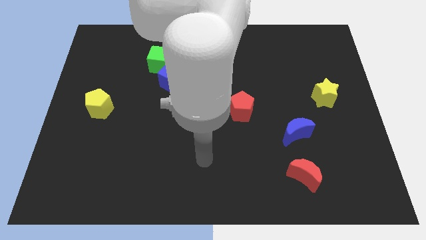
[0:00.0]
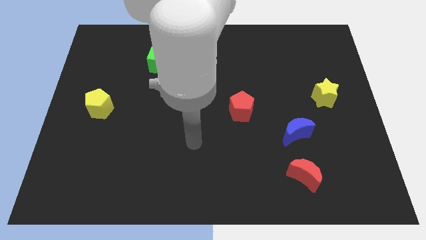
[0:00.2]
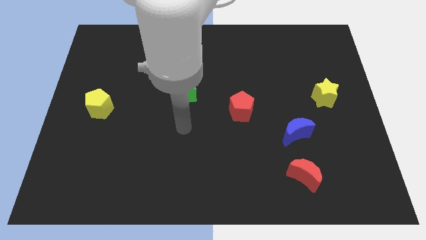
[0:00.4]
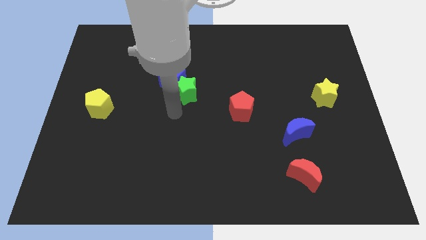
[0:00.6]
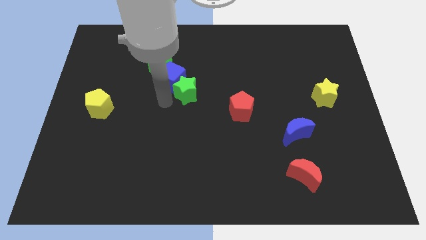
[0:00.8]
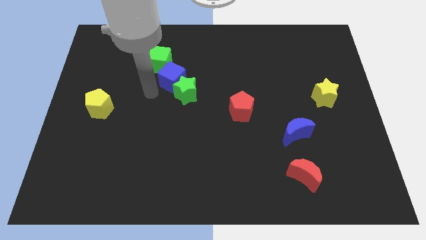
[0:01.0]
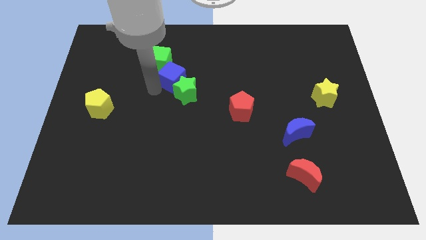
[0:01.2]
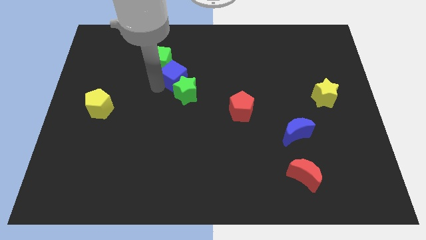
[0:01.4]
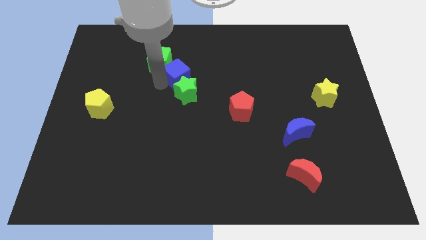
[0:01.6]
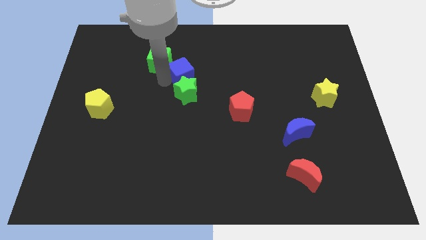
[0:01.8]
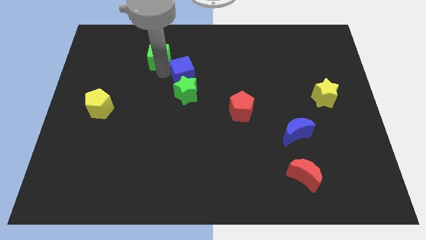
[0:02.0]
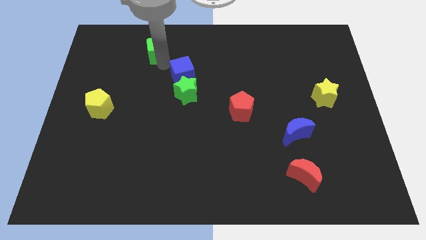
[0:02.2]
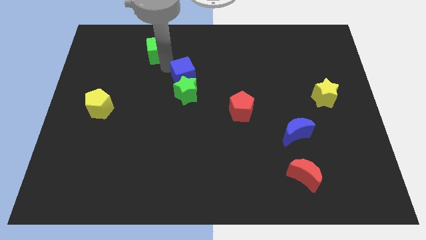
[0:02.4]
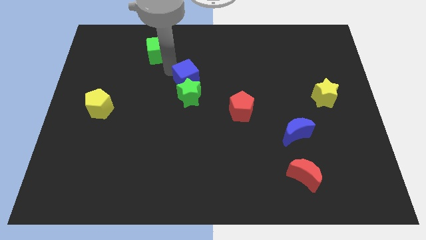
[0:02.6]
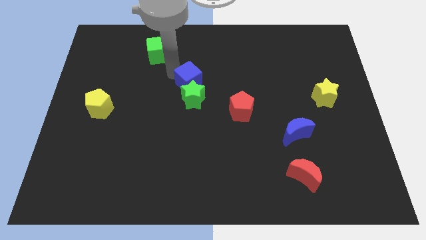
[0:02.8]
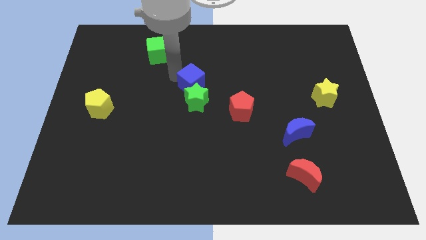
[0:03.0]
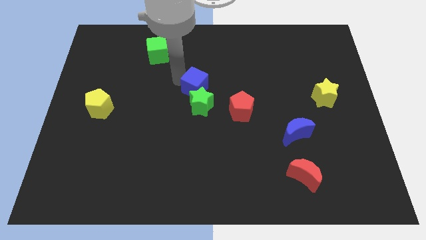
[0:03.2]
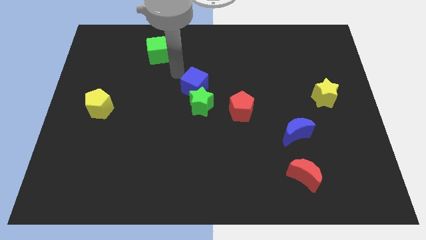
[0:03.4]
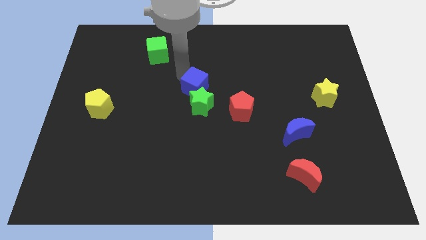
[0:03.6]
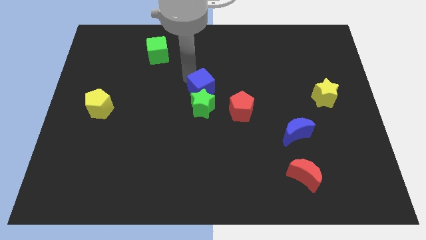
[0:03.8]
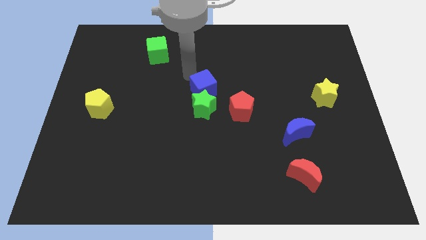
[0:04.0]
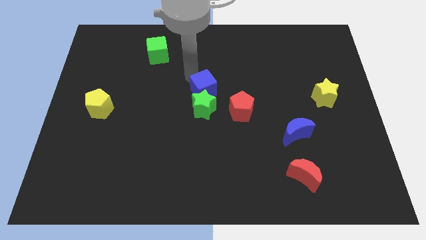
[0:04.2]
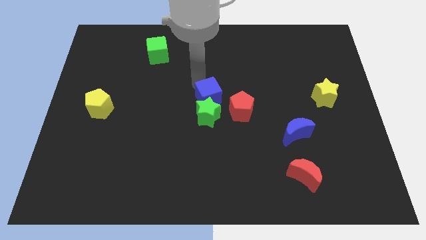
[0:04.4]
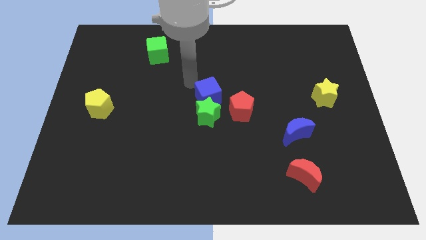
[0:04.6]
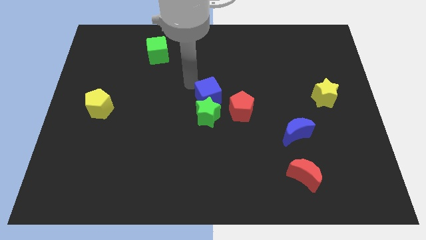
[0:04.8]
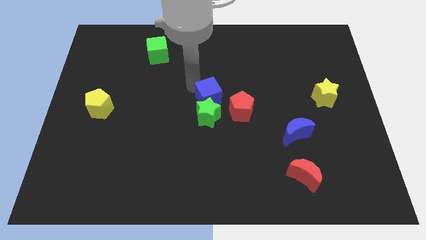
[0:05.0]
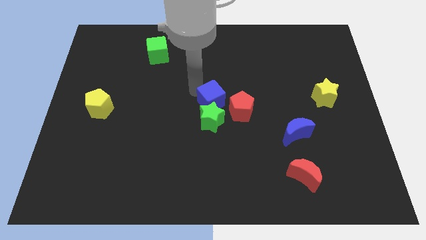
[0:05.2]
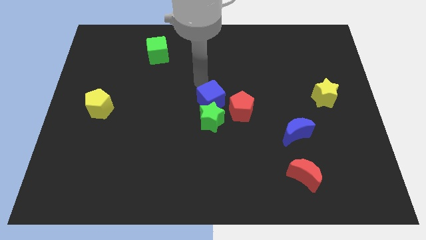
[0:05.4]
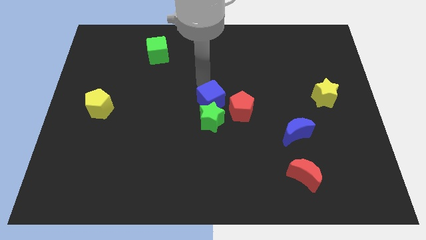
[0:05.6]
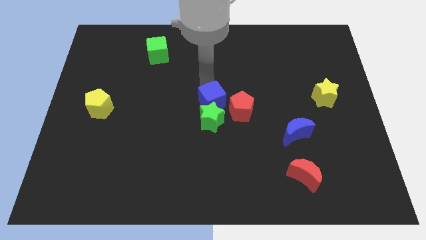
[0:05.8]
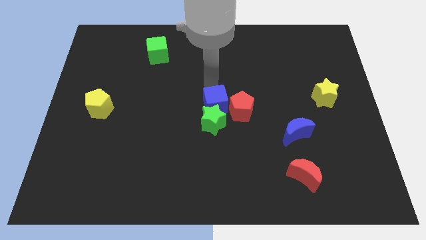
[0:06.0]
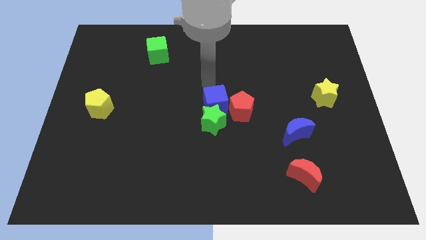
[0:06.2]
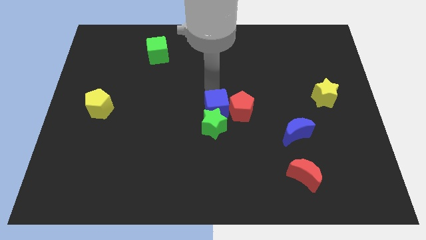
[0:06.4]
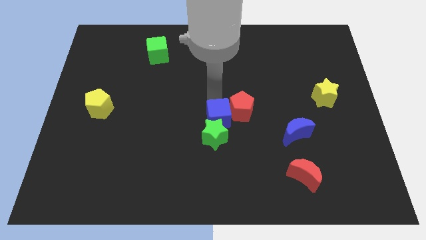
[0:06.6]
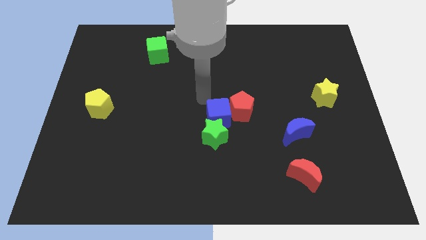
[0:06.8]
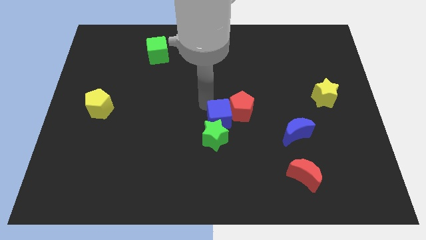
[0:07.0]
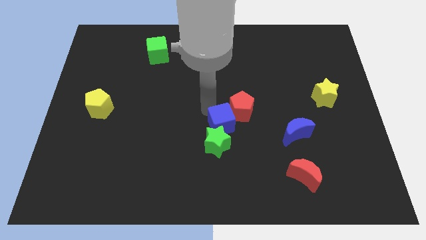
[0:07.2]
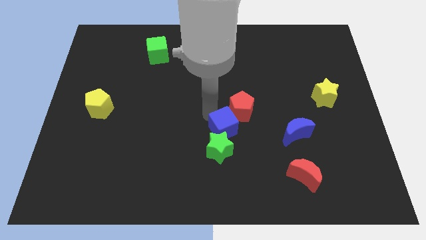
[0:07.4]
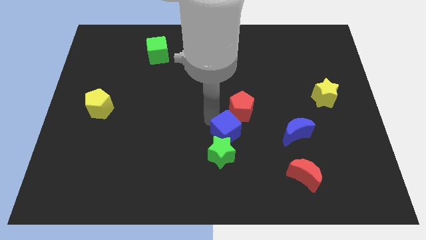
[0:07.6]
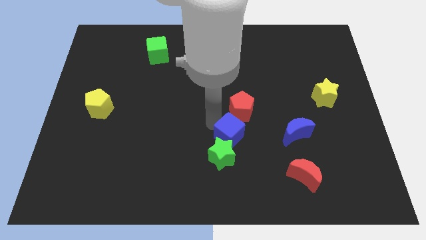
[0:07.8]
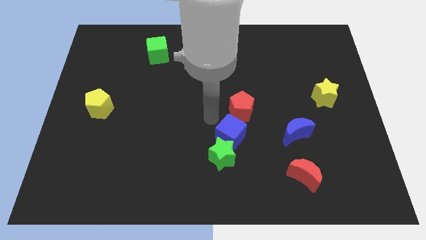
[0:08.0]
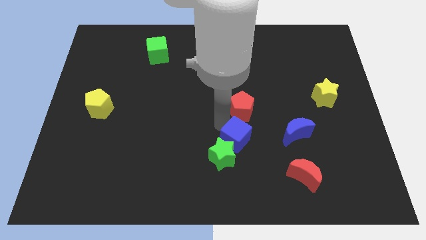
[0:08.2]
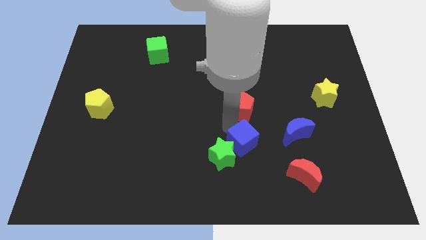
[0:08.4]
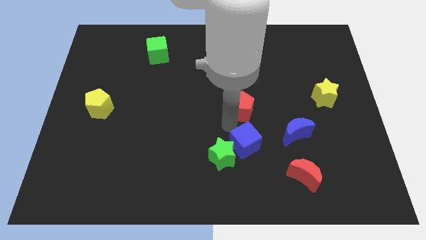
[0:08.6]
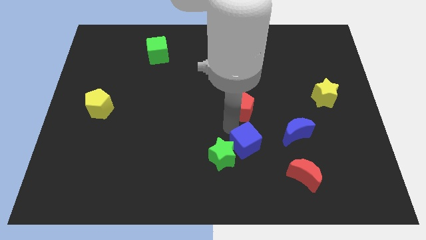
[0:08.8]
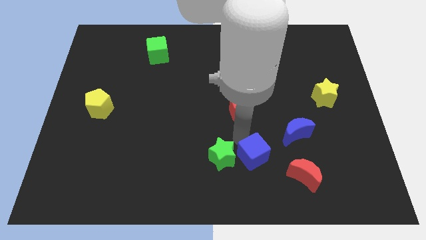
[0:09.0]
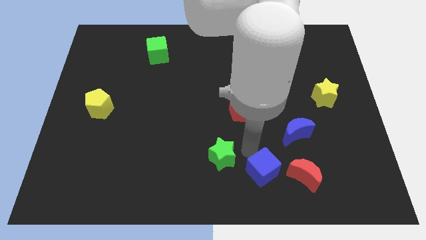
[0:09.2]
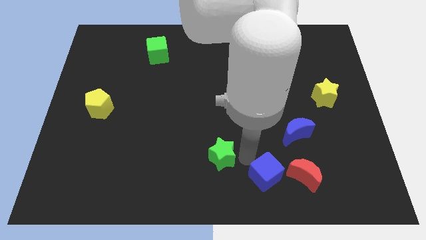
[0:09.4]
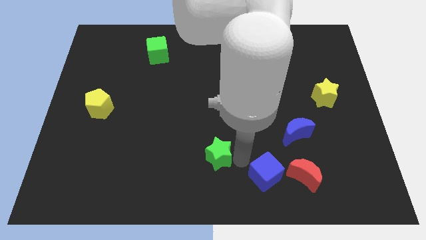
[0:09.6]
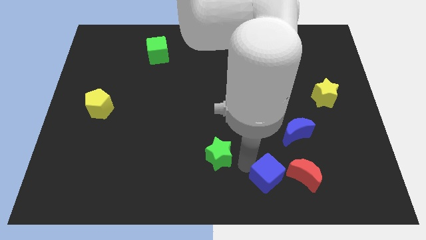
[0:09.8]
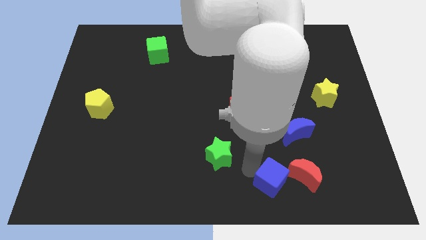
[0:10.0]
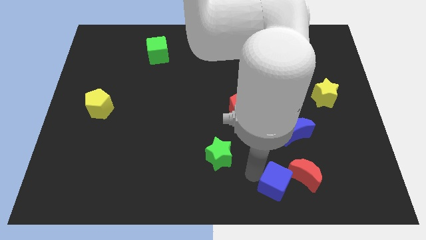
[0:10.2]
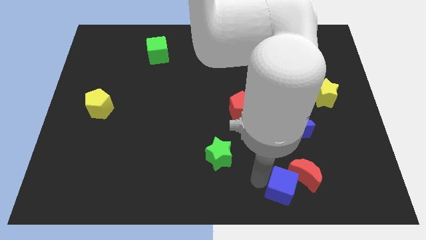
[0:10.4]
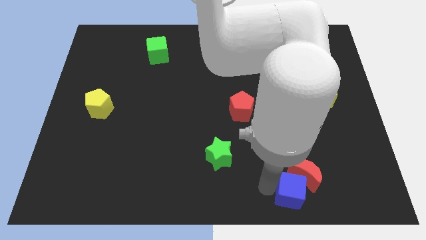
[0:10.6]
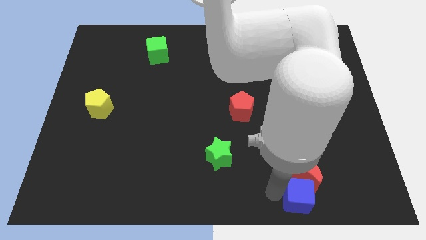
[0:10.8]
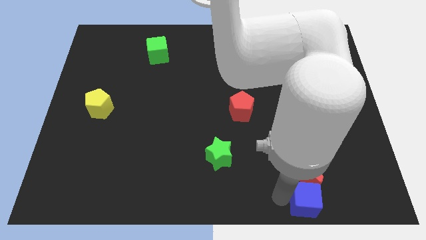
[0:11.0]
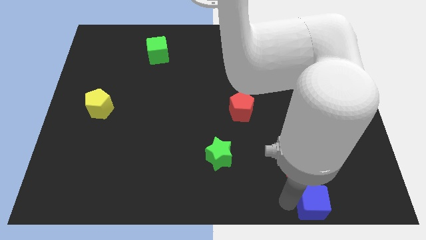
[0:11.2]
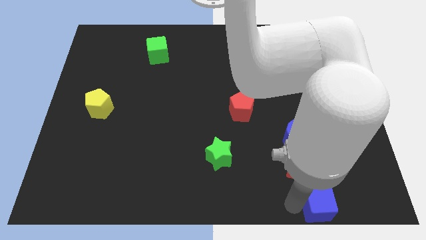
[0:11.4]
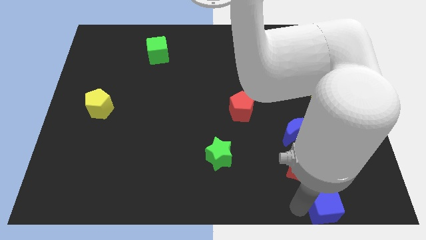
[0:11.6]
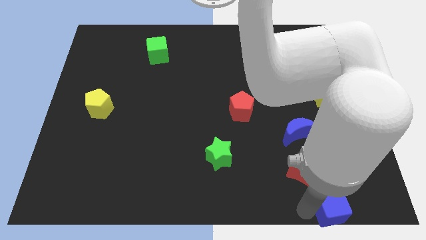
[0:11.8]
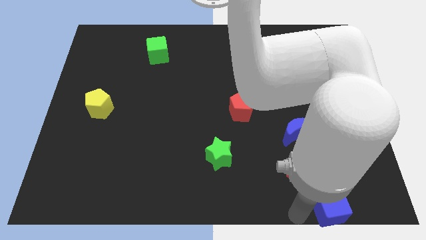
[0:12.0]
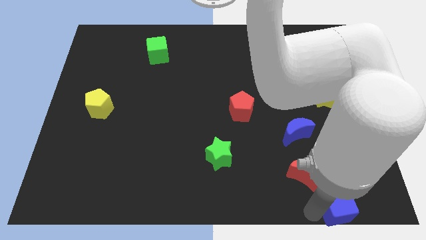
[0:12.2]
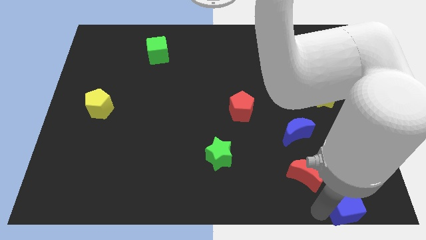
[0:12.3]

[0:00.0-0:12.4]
slide the blue cube to the bottom right

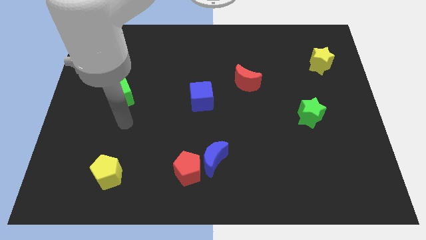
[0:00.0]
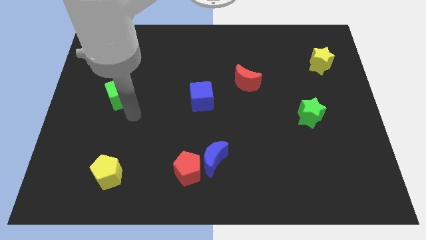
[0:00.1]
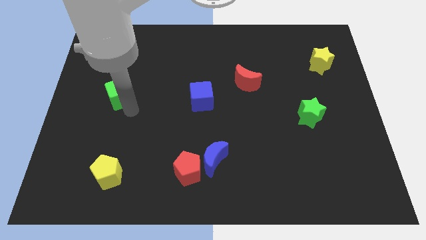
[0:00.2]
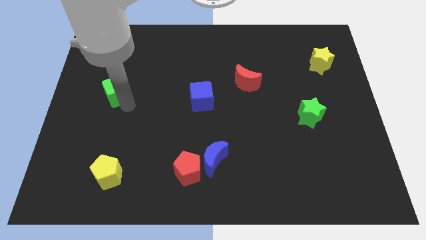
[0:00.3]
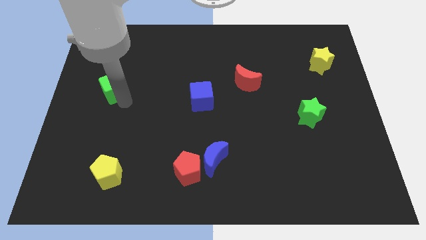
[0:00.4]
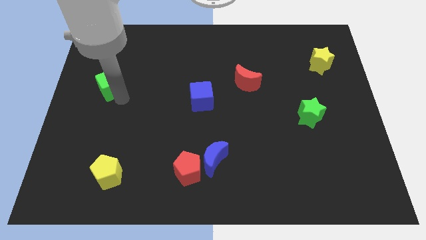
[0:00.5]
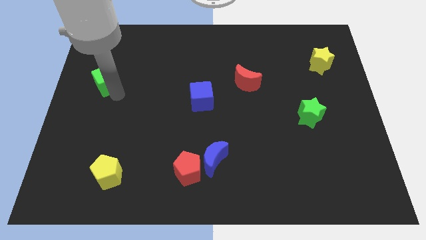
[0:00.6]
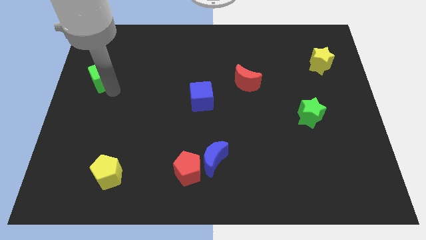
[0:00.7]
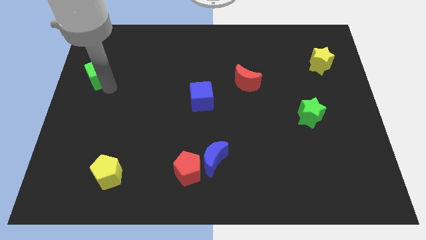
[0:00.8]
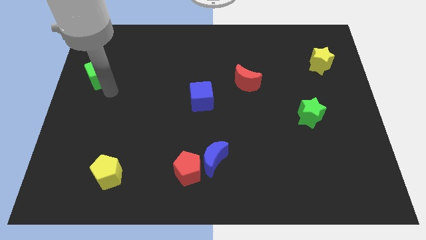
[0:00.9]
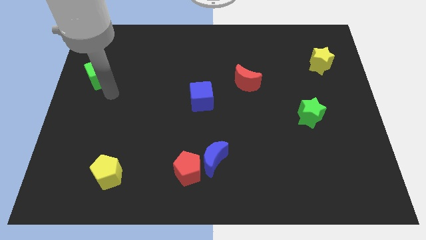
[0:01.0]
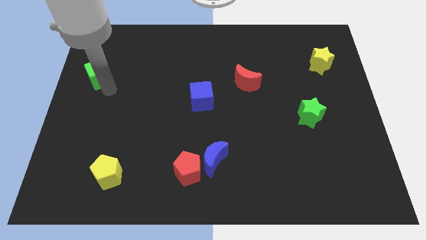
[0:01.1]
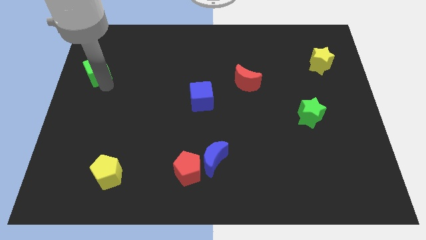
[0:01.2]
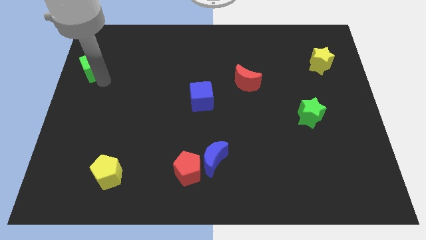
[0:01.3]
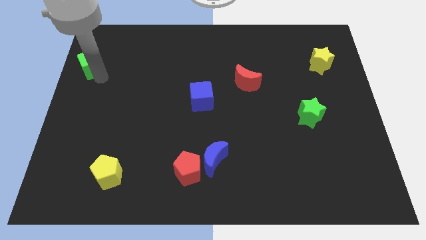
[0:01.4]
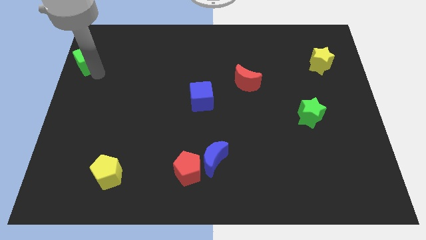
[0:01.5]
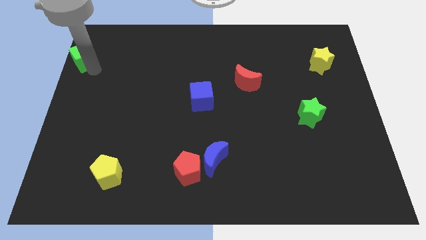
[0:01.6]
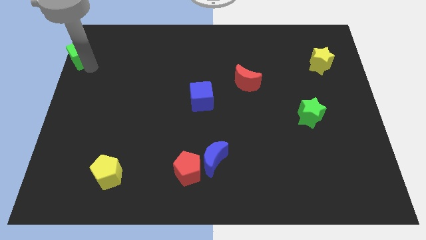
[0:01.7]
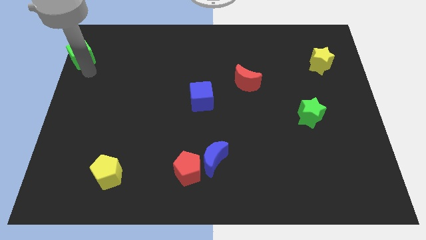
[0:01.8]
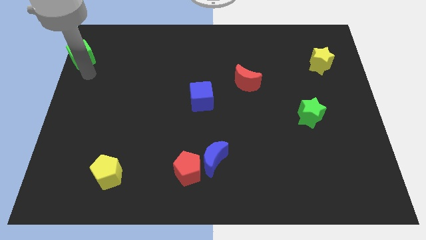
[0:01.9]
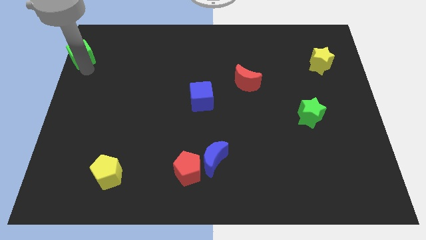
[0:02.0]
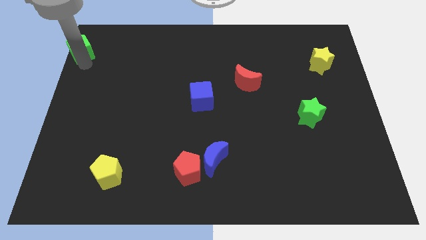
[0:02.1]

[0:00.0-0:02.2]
slide the green cube to the top left
